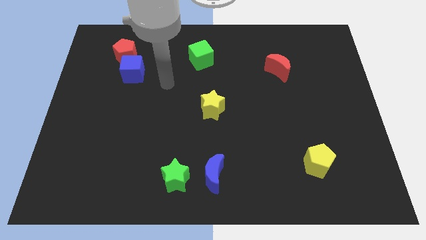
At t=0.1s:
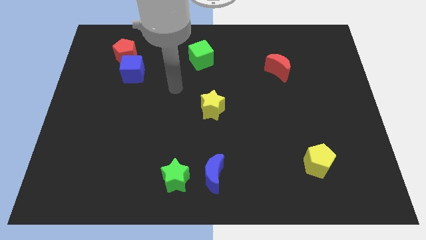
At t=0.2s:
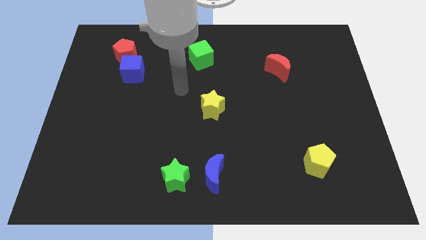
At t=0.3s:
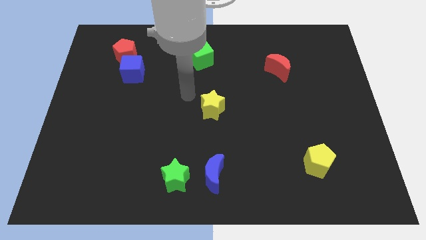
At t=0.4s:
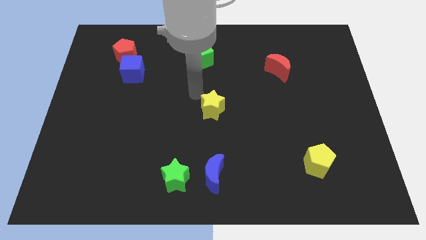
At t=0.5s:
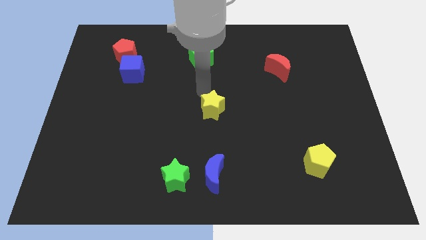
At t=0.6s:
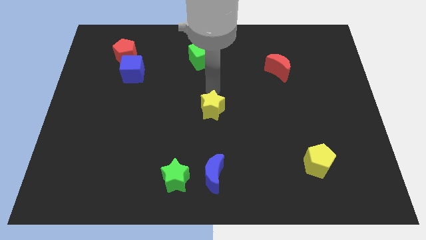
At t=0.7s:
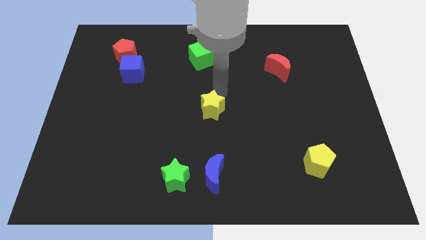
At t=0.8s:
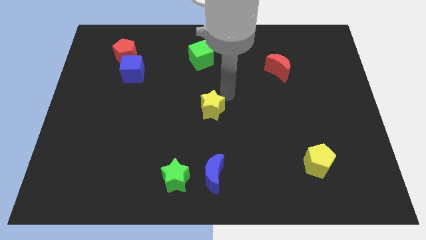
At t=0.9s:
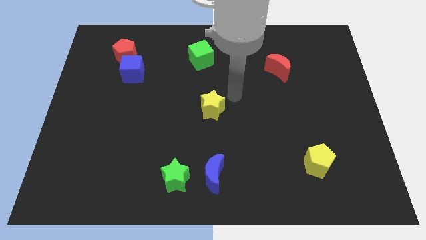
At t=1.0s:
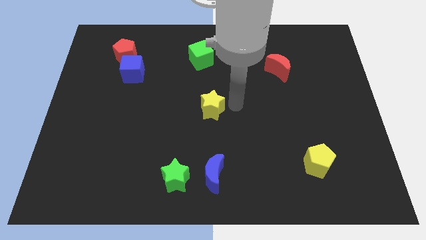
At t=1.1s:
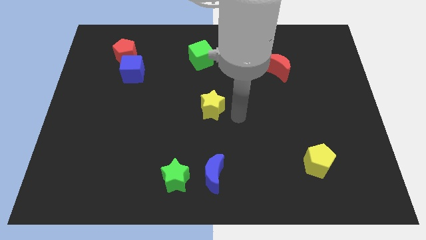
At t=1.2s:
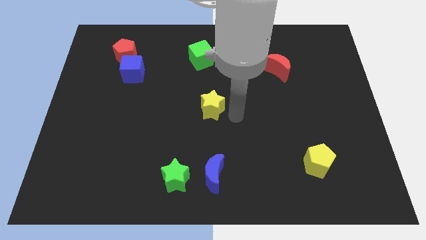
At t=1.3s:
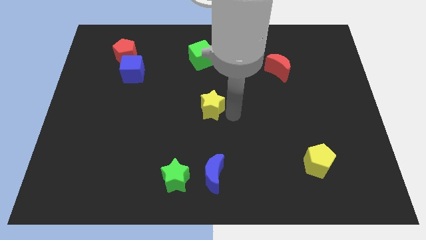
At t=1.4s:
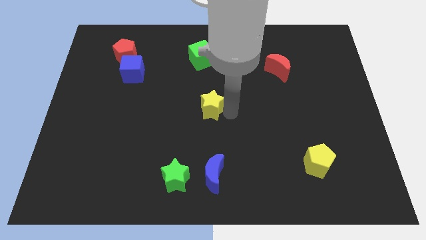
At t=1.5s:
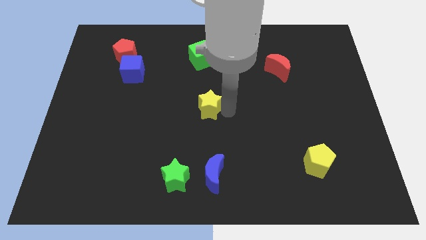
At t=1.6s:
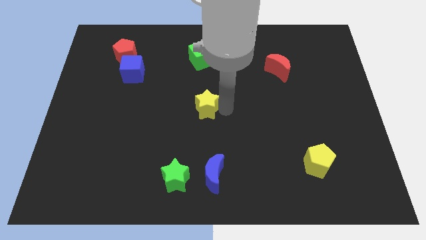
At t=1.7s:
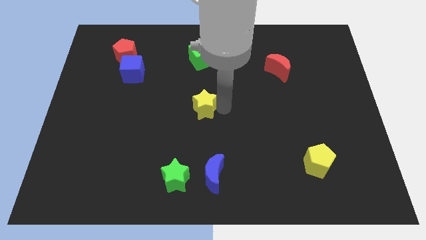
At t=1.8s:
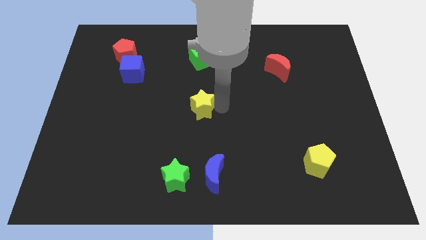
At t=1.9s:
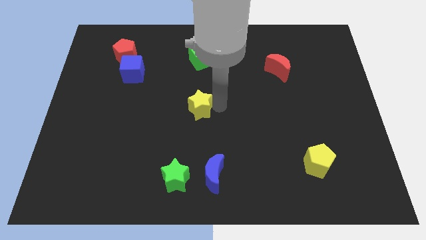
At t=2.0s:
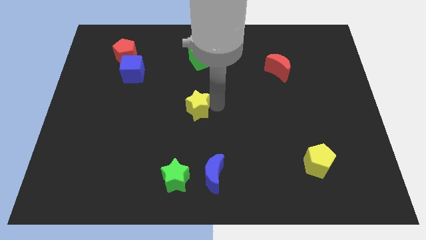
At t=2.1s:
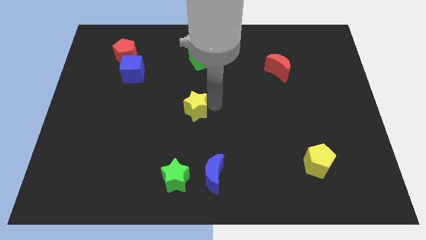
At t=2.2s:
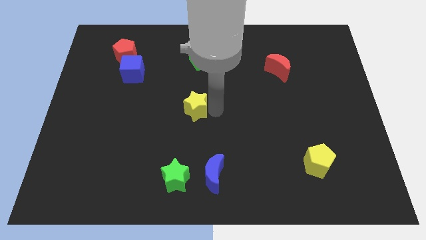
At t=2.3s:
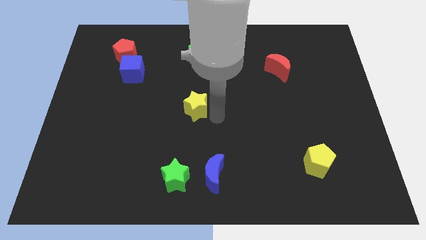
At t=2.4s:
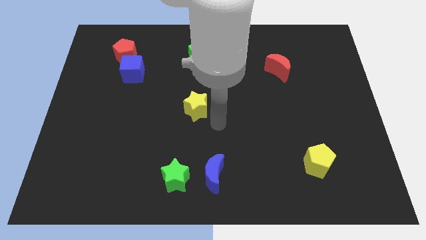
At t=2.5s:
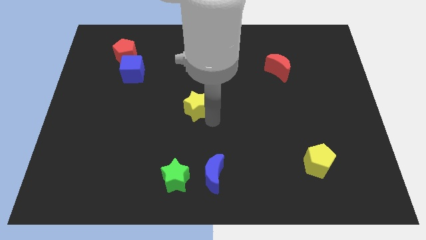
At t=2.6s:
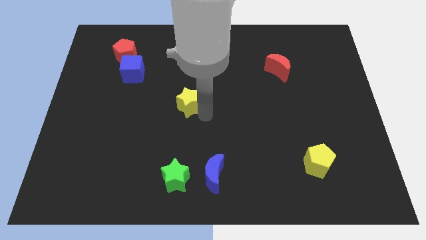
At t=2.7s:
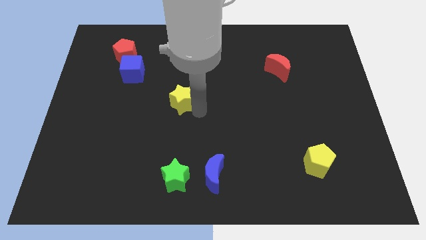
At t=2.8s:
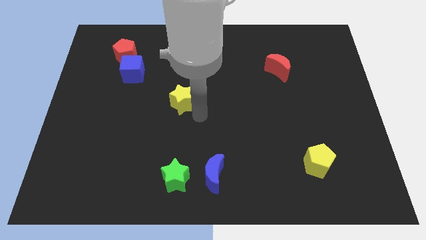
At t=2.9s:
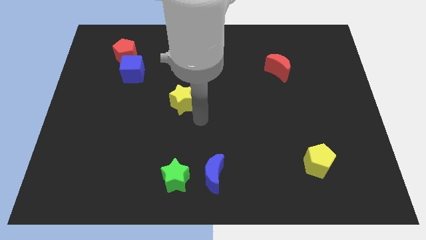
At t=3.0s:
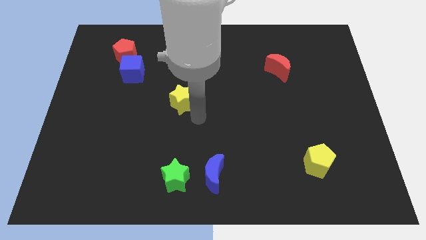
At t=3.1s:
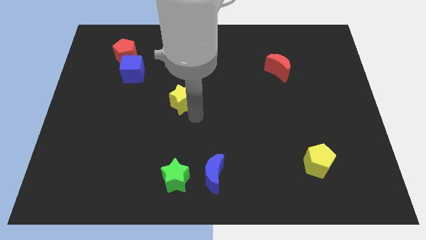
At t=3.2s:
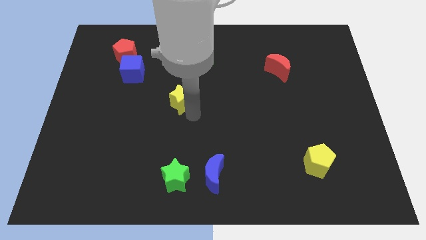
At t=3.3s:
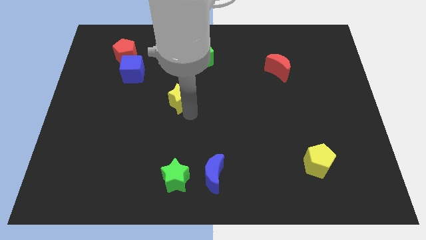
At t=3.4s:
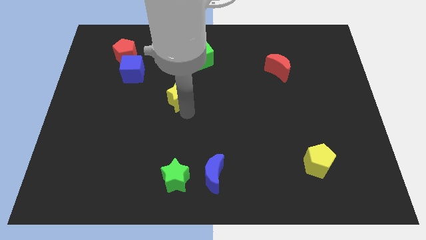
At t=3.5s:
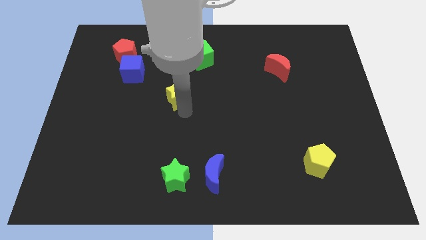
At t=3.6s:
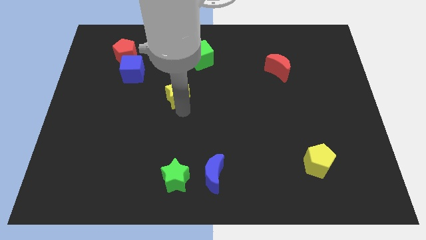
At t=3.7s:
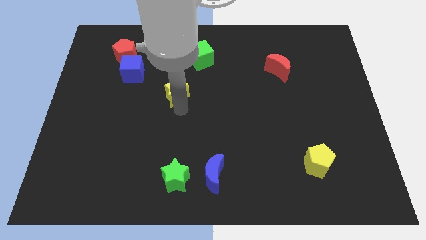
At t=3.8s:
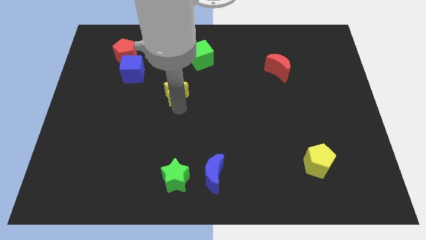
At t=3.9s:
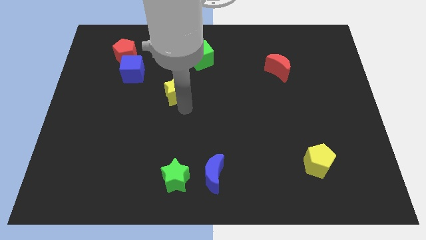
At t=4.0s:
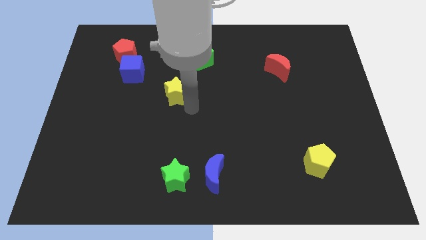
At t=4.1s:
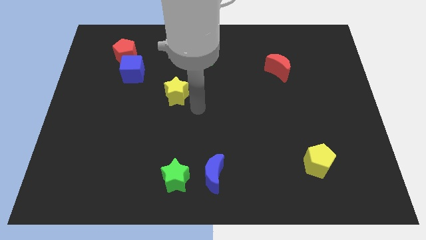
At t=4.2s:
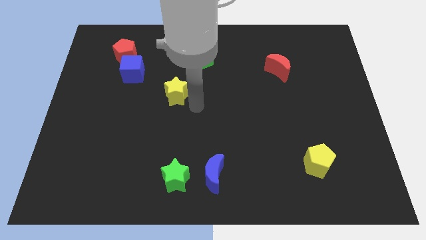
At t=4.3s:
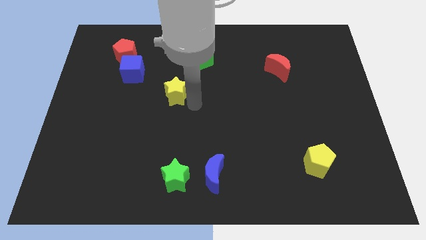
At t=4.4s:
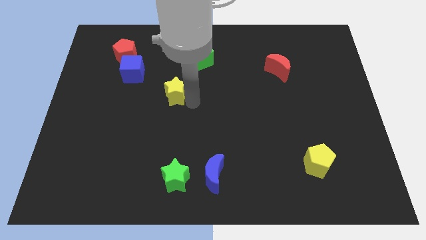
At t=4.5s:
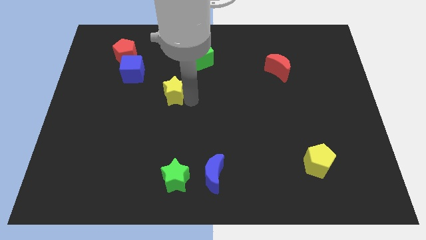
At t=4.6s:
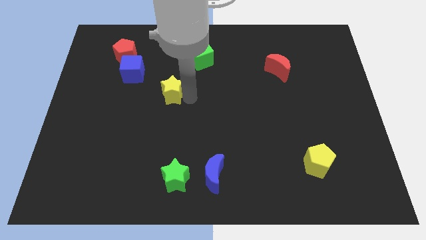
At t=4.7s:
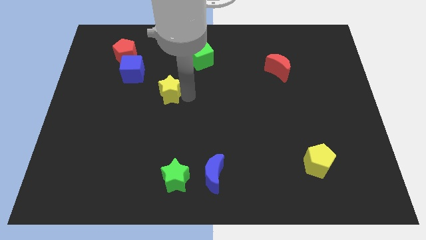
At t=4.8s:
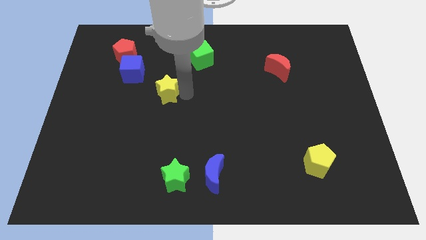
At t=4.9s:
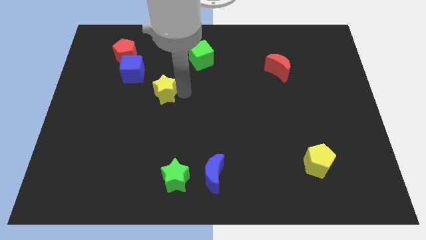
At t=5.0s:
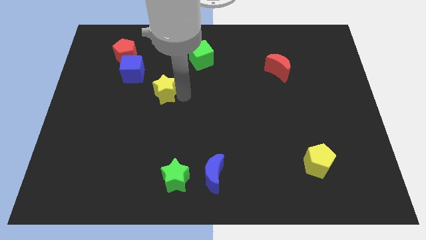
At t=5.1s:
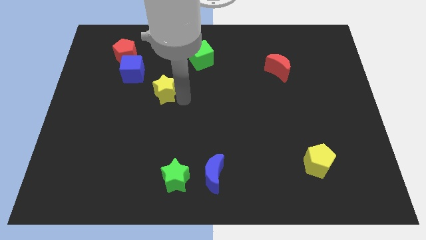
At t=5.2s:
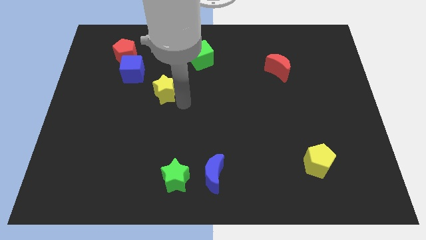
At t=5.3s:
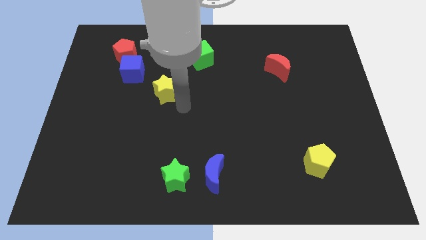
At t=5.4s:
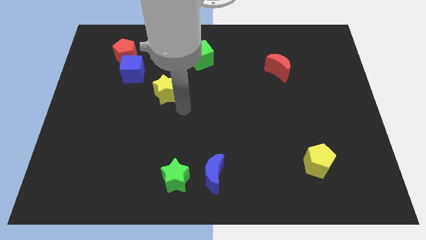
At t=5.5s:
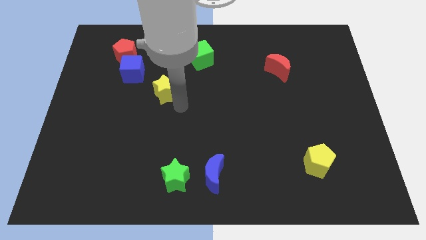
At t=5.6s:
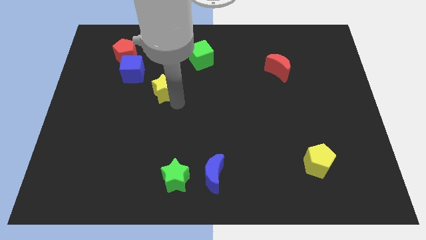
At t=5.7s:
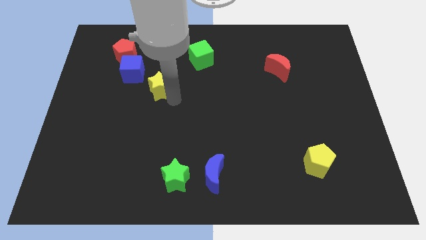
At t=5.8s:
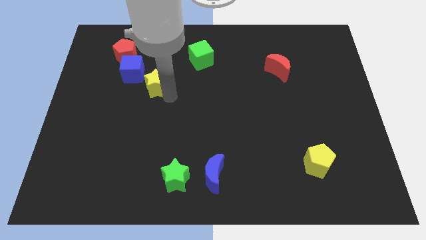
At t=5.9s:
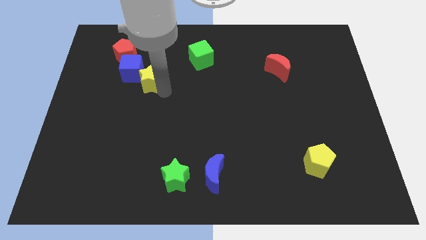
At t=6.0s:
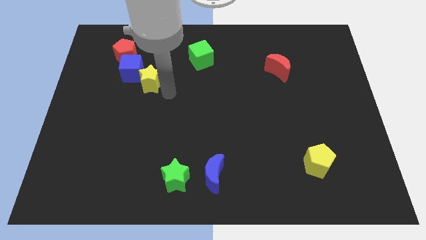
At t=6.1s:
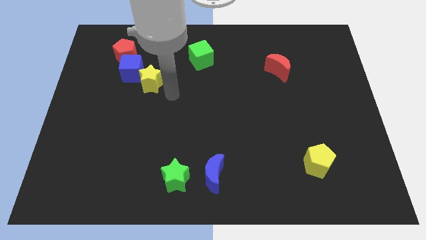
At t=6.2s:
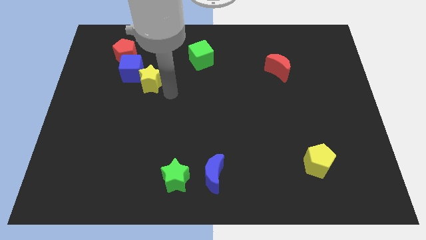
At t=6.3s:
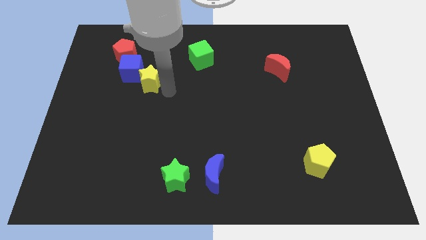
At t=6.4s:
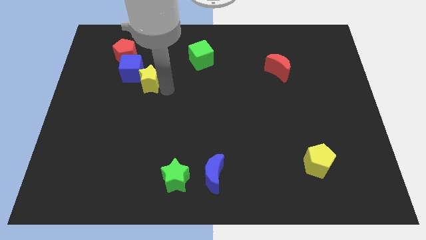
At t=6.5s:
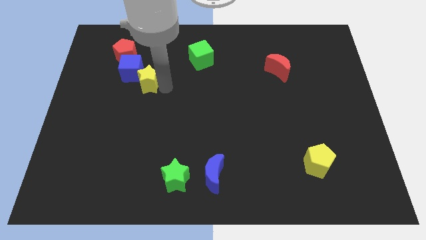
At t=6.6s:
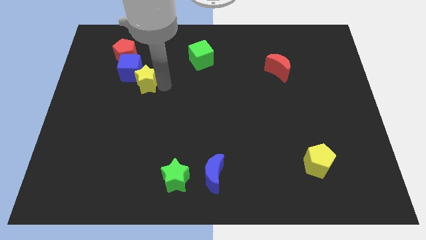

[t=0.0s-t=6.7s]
move the yellow star close to the blue cube
